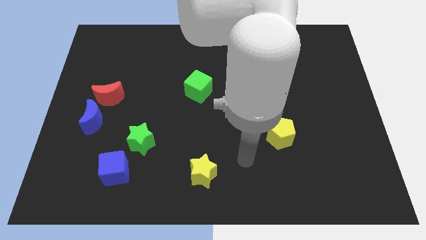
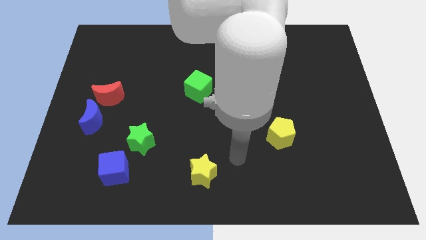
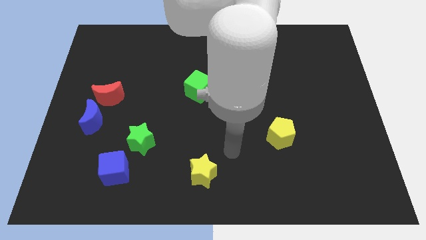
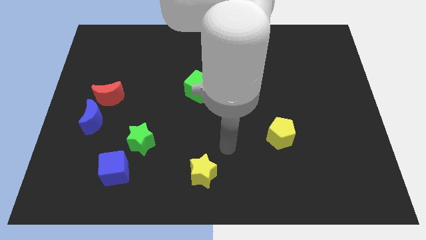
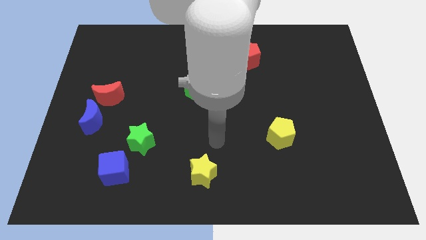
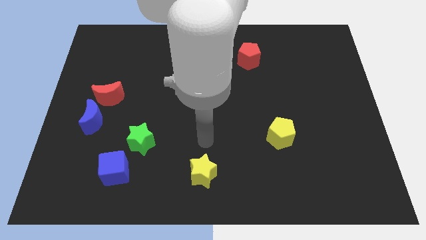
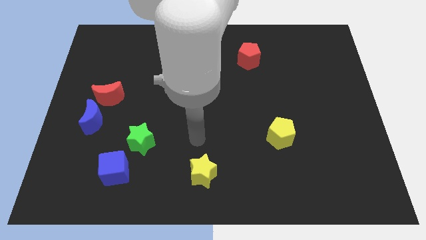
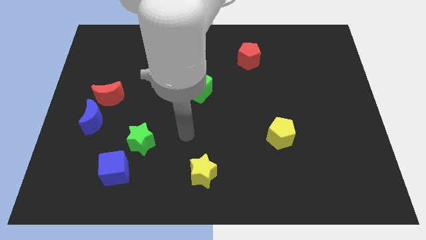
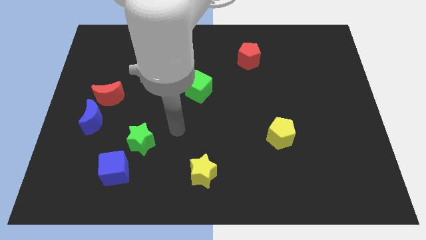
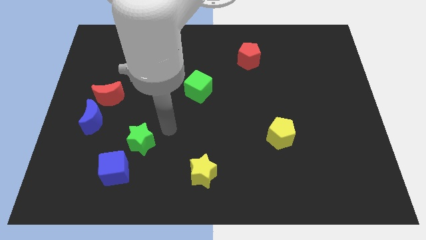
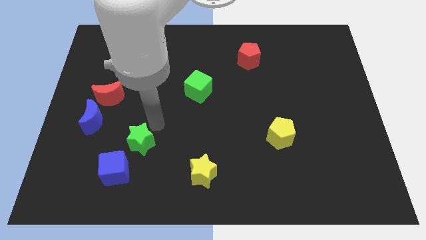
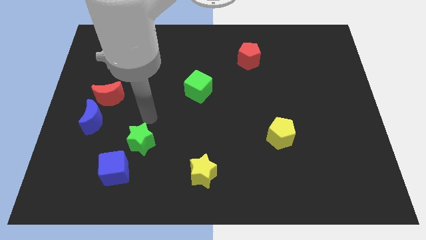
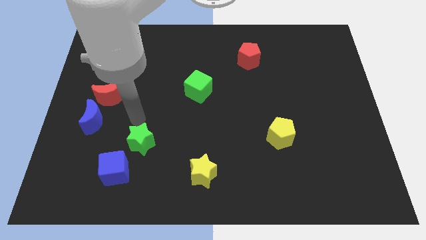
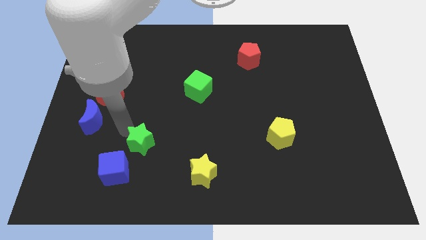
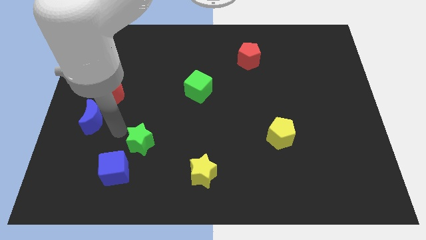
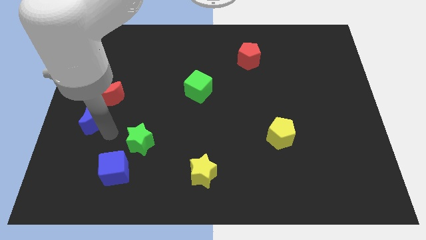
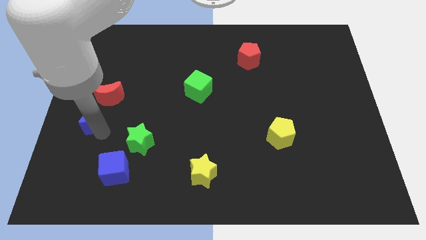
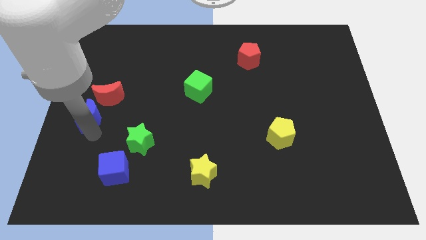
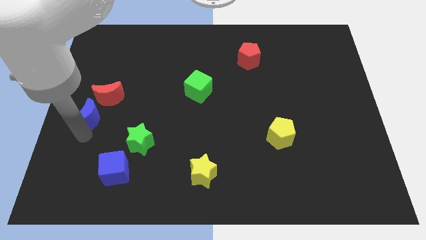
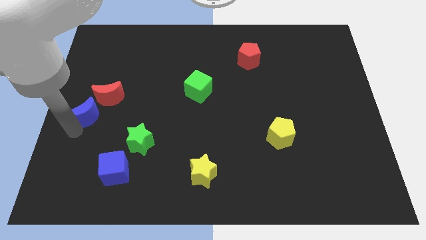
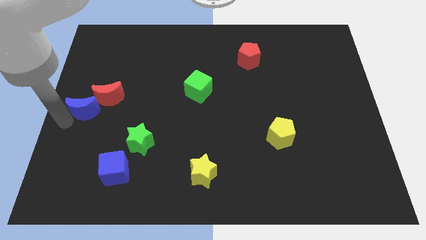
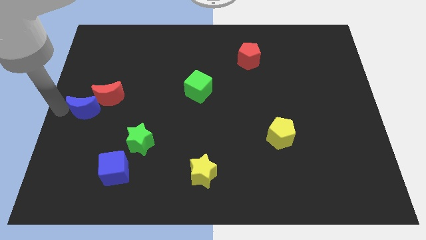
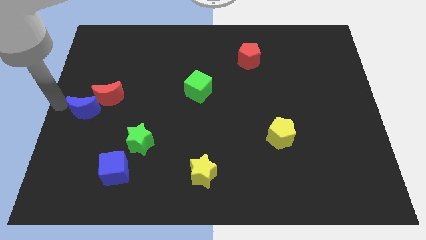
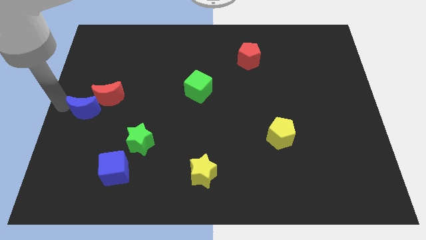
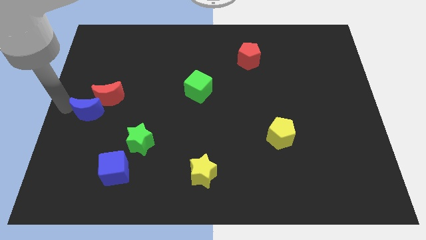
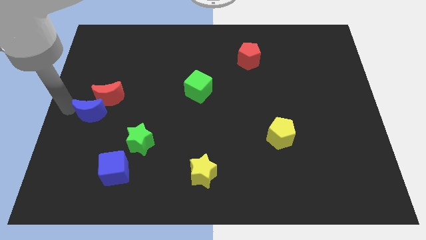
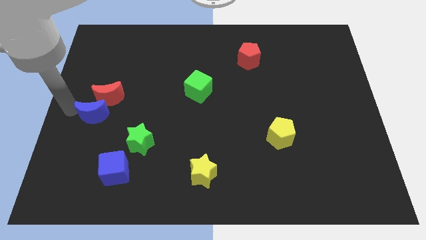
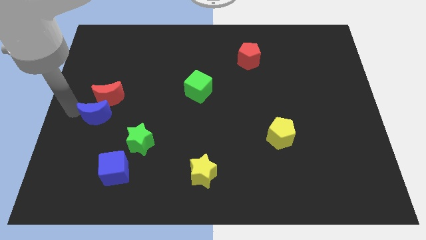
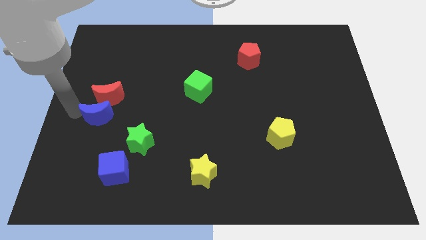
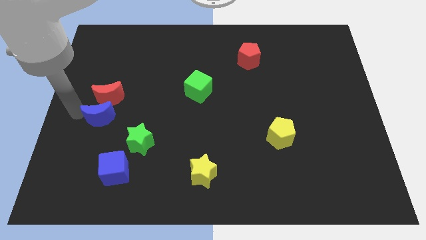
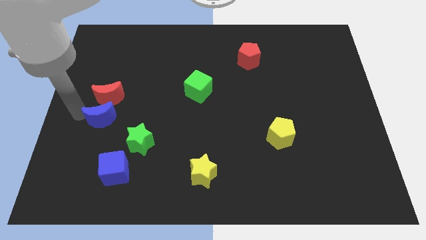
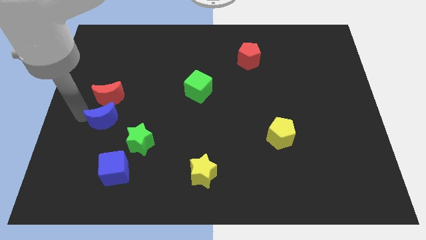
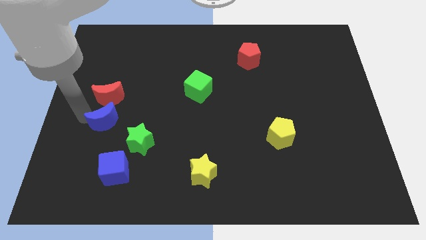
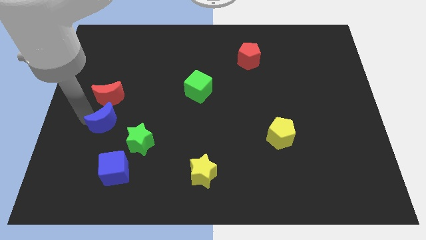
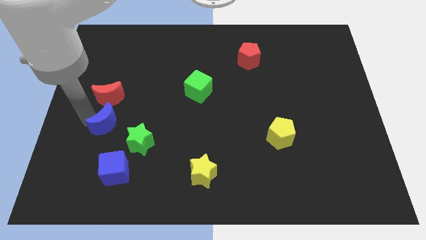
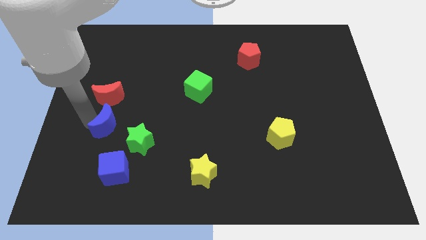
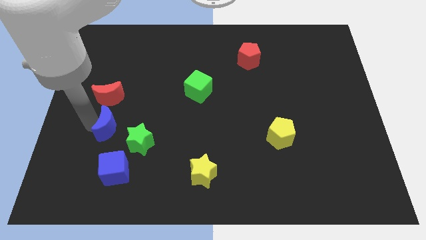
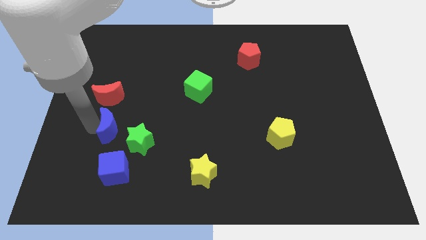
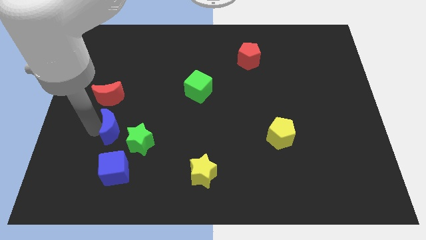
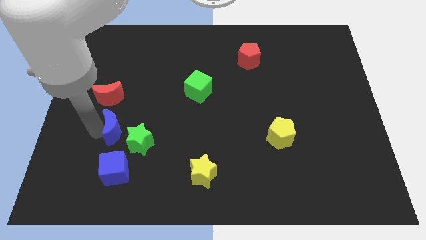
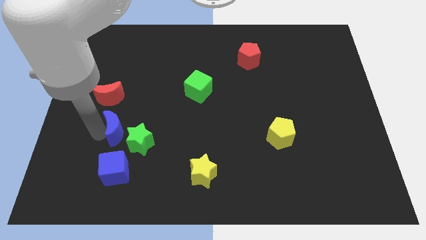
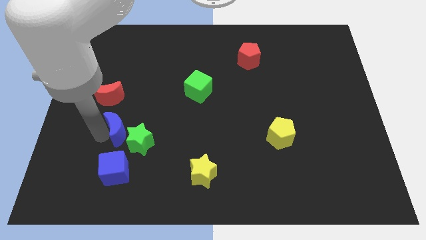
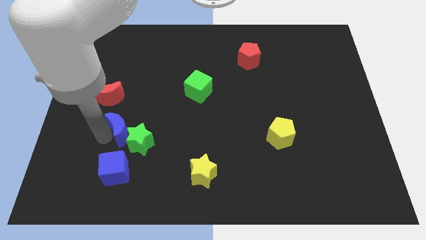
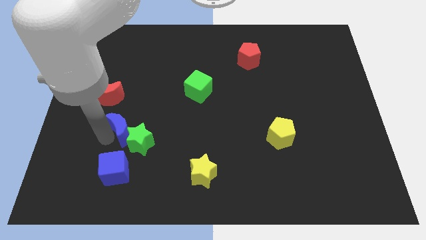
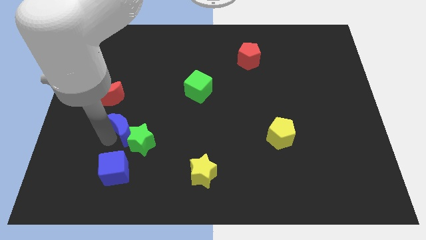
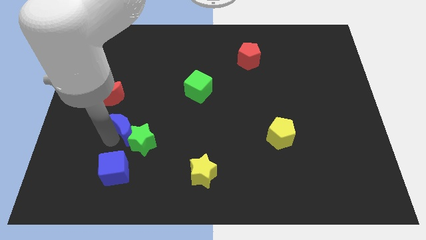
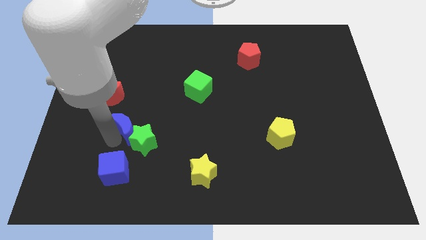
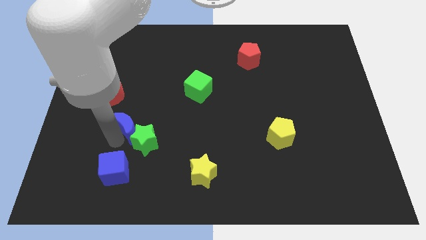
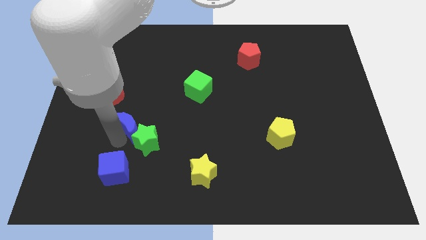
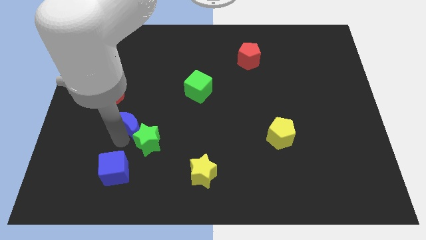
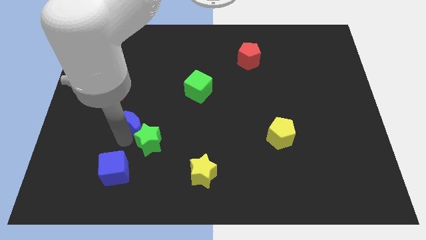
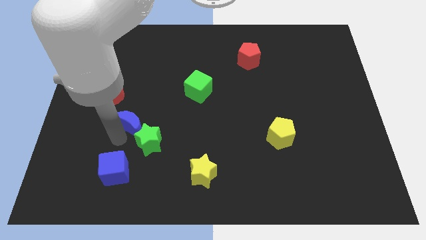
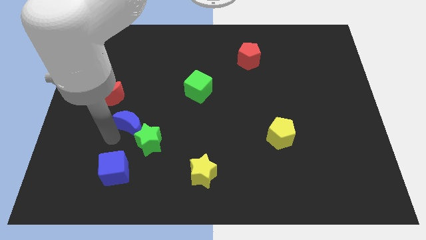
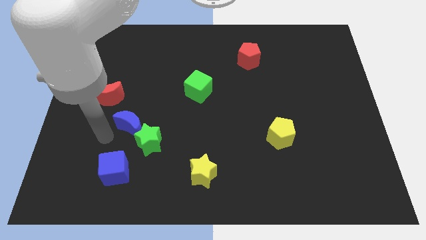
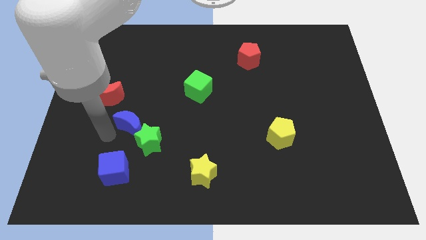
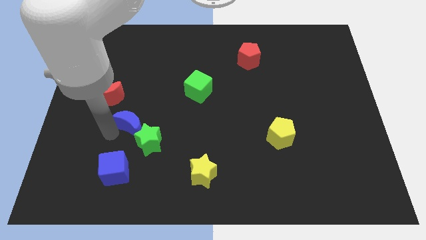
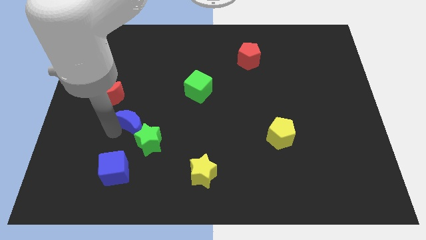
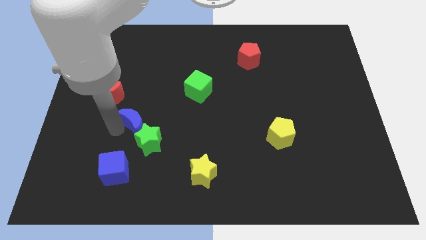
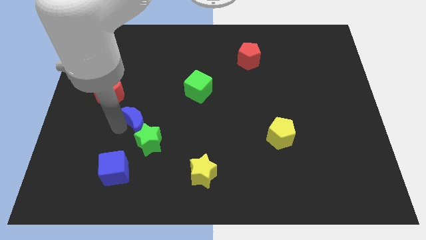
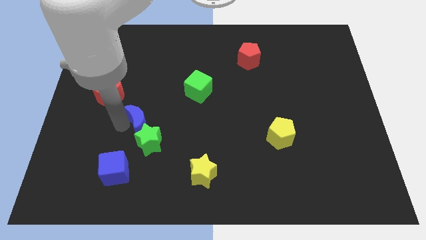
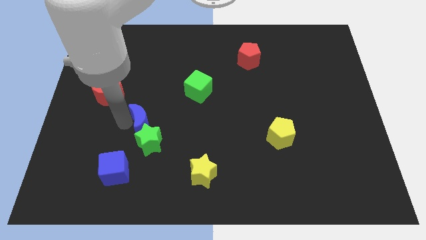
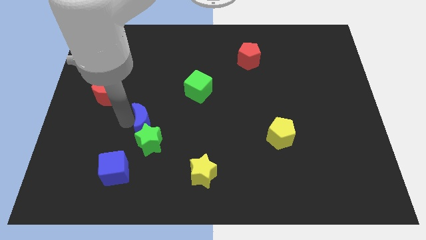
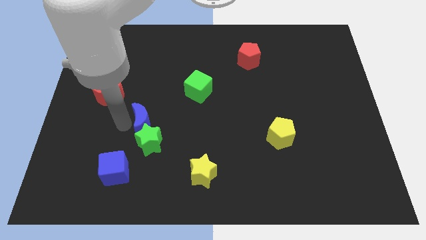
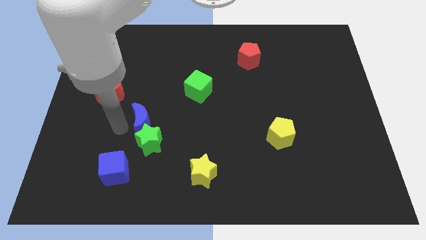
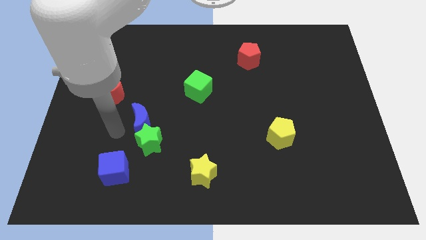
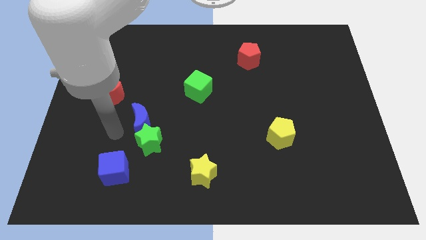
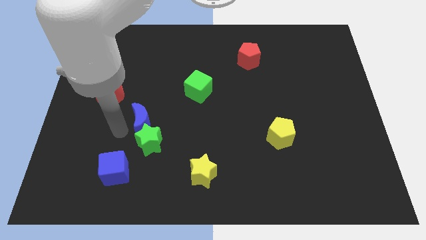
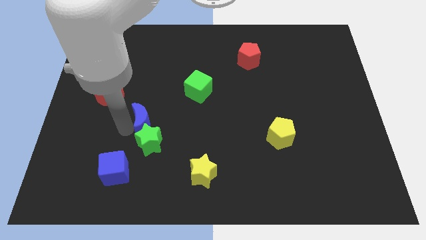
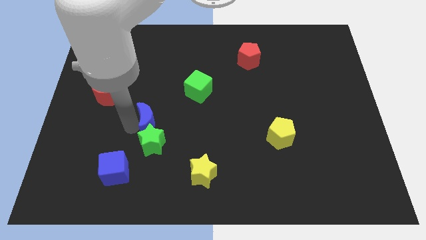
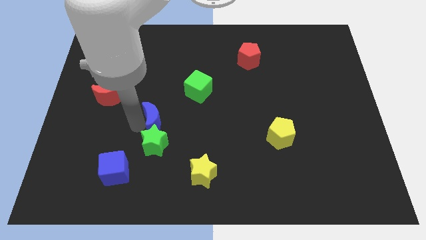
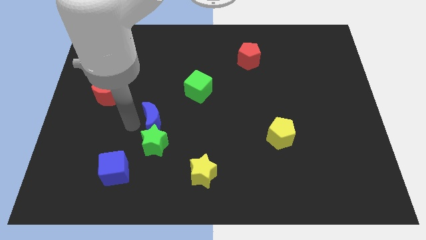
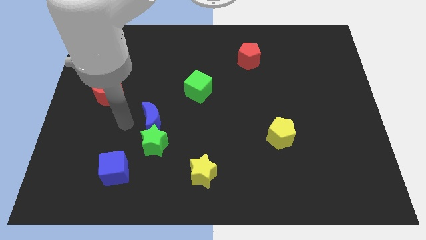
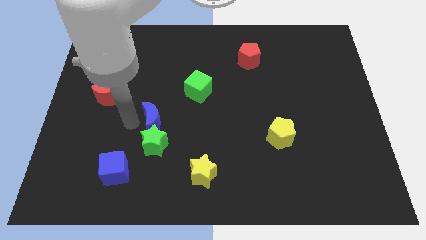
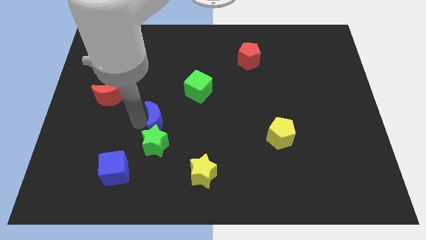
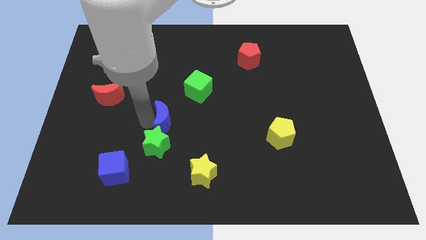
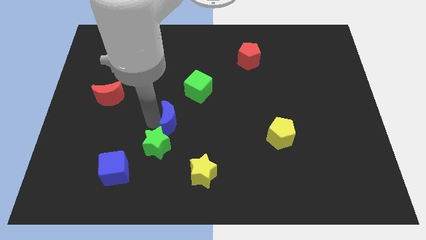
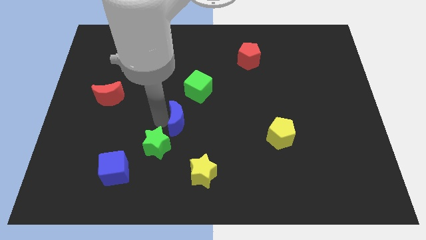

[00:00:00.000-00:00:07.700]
push the blue moon to the bottom of the green cube
